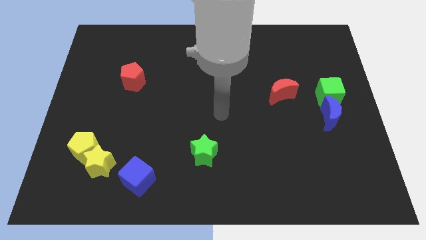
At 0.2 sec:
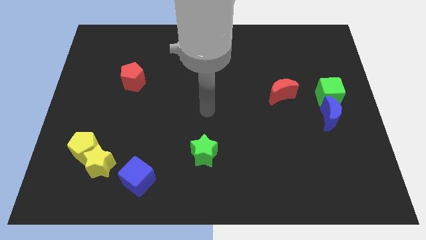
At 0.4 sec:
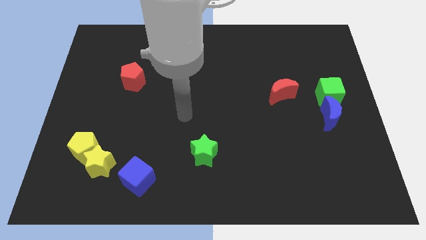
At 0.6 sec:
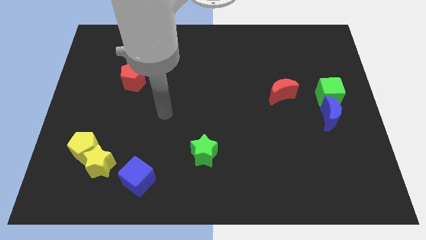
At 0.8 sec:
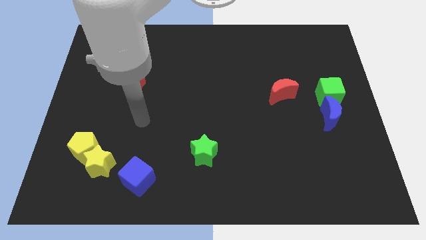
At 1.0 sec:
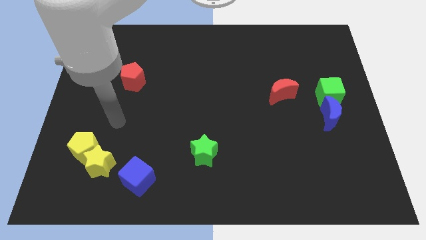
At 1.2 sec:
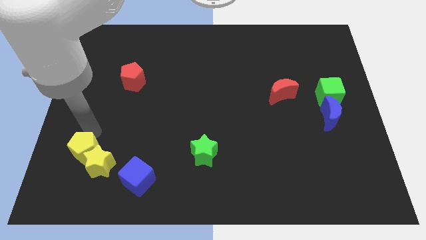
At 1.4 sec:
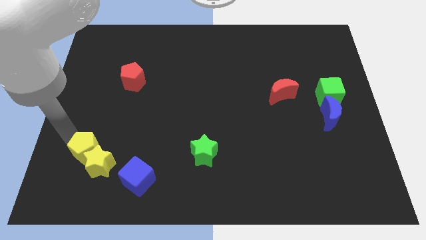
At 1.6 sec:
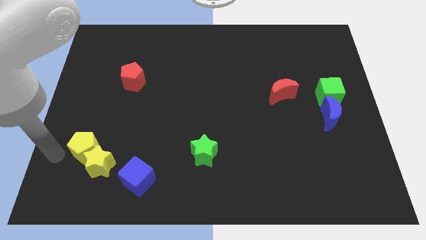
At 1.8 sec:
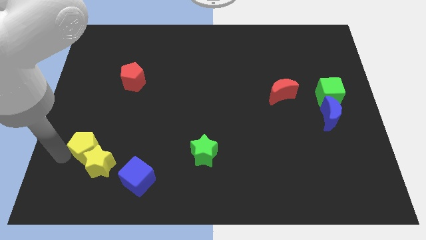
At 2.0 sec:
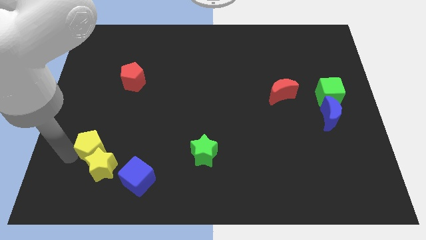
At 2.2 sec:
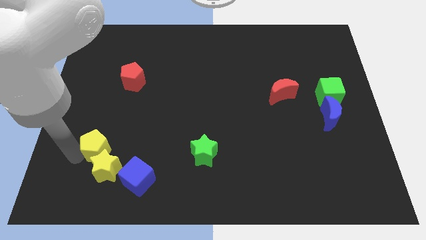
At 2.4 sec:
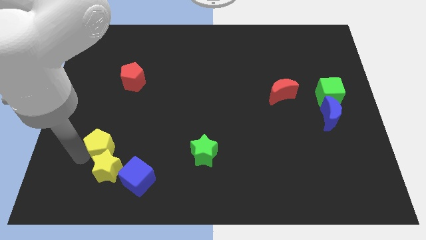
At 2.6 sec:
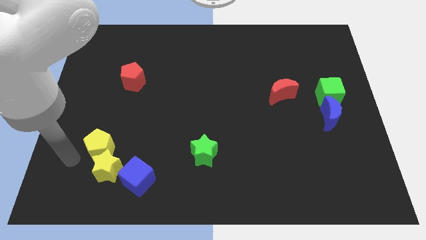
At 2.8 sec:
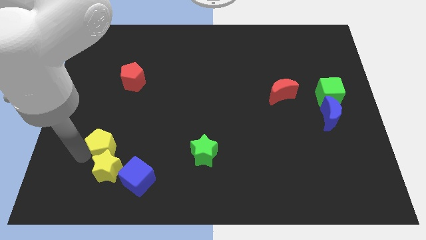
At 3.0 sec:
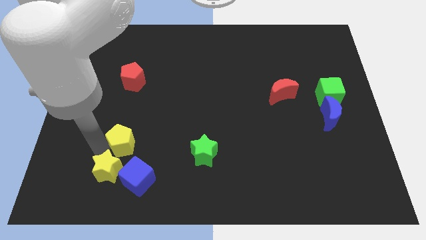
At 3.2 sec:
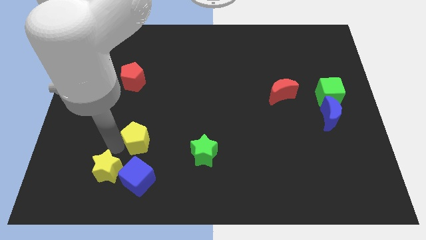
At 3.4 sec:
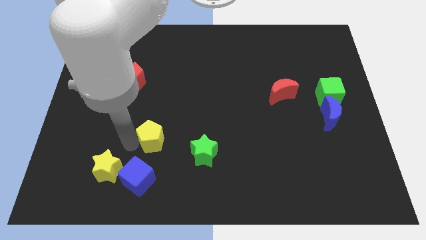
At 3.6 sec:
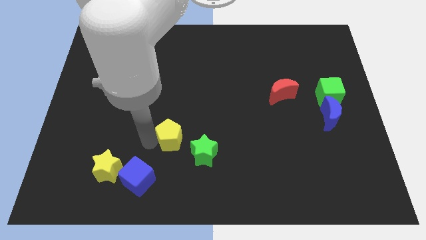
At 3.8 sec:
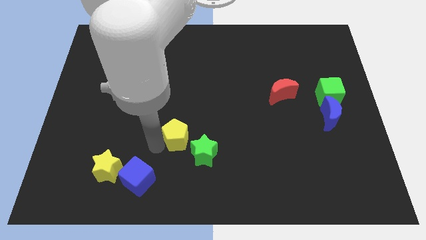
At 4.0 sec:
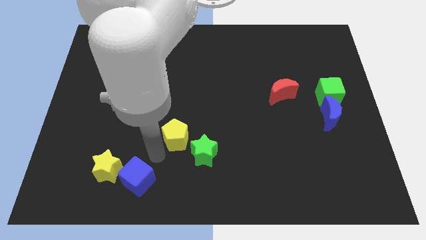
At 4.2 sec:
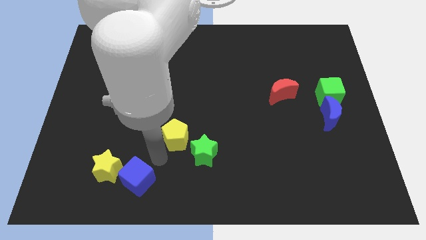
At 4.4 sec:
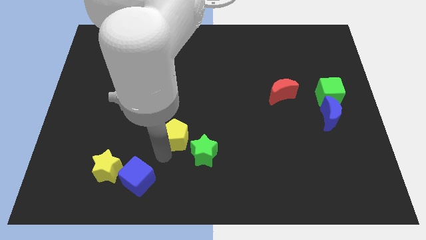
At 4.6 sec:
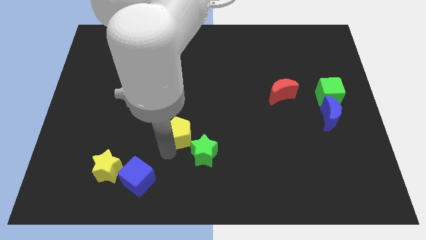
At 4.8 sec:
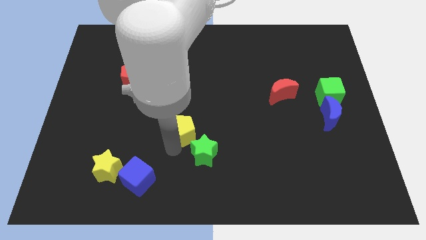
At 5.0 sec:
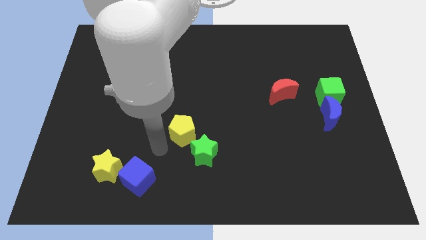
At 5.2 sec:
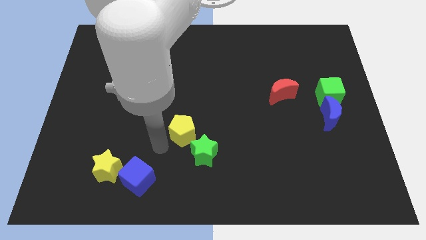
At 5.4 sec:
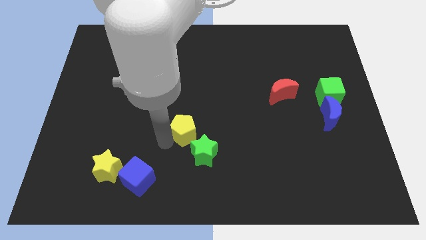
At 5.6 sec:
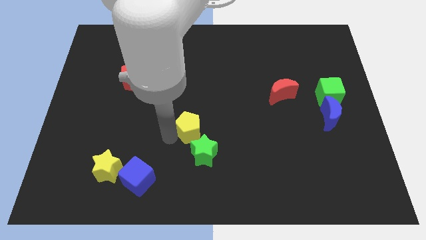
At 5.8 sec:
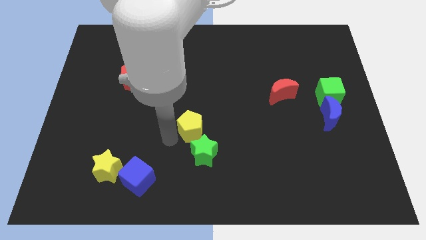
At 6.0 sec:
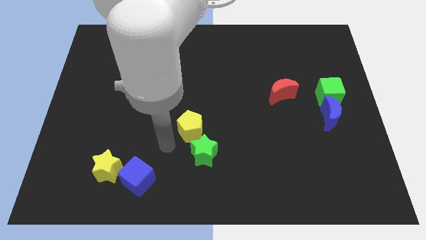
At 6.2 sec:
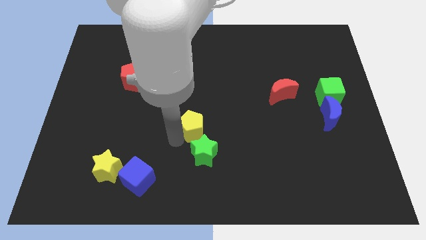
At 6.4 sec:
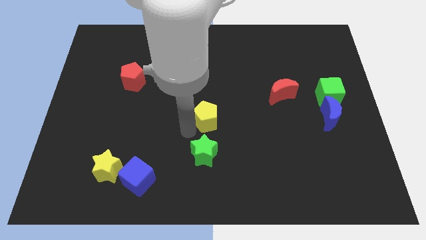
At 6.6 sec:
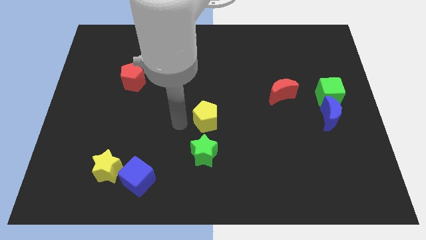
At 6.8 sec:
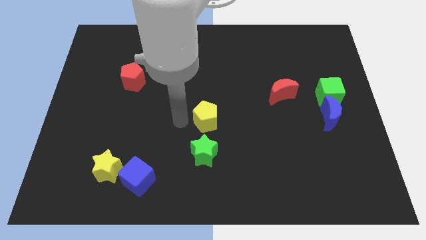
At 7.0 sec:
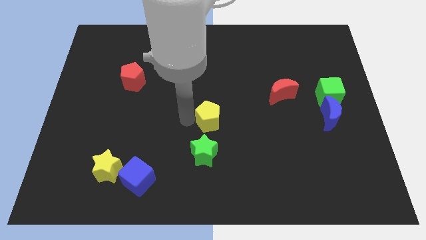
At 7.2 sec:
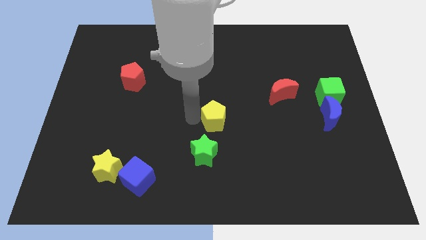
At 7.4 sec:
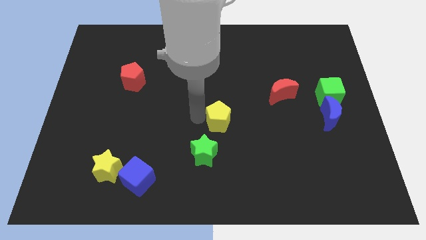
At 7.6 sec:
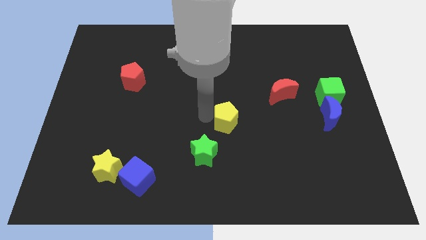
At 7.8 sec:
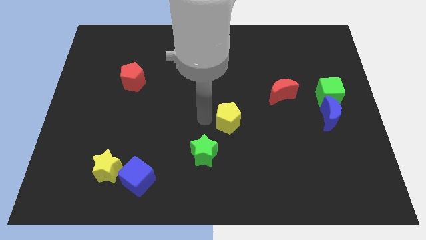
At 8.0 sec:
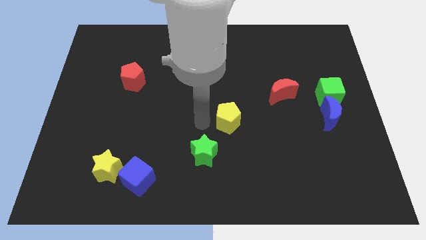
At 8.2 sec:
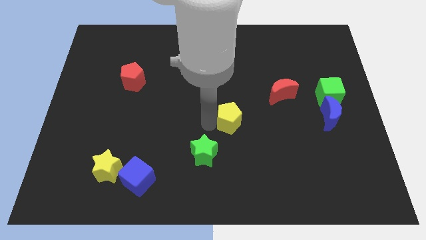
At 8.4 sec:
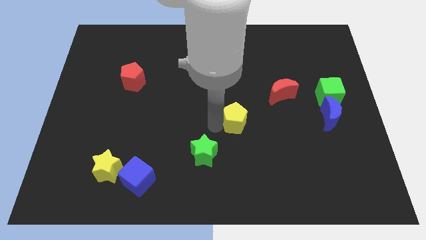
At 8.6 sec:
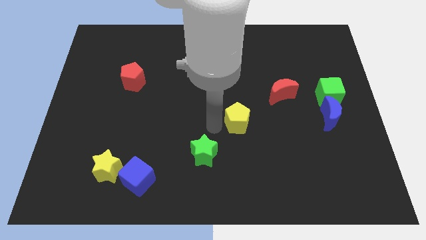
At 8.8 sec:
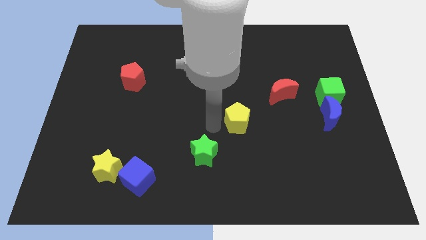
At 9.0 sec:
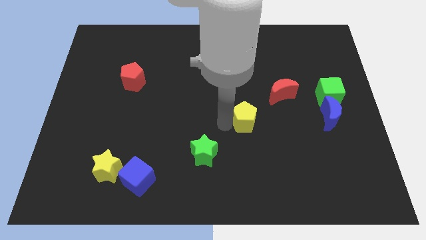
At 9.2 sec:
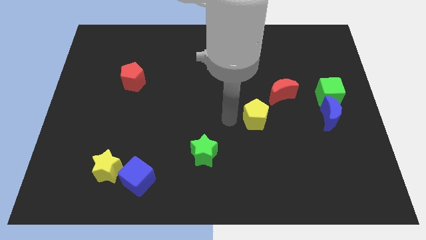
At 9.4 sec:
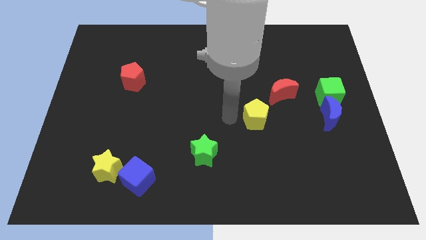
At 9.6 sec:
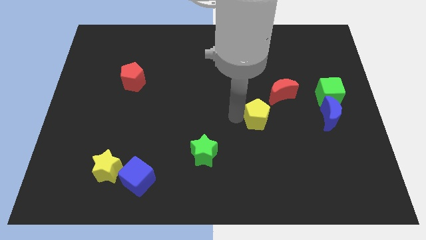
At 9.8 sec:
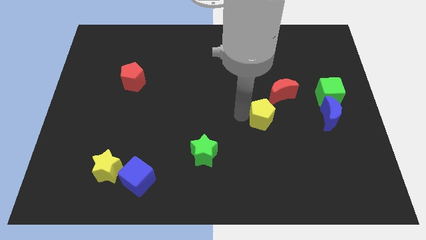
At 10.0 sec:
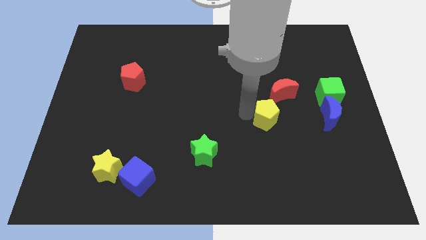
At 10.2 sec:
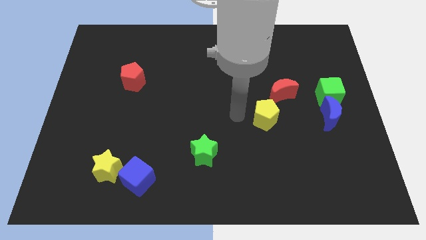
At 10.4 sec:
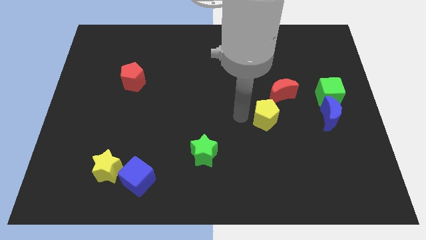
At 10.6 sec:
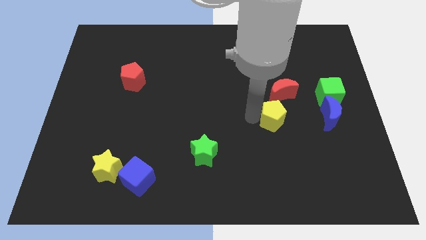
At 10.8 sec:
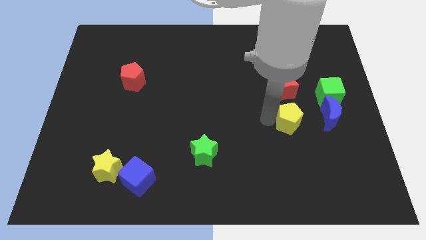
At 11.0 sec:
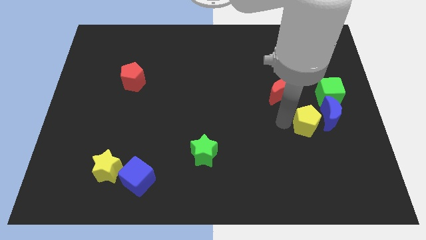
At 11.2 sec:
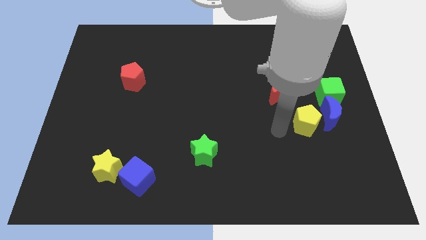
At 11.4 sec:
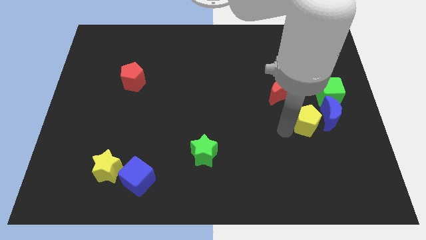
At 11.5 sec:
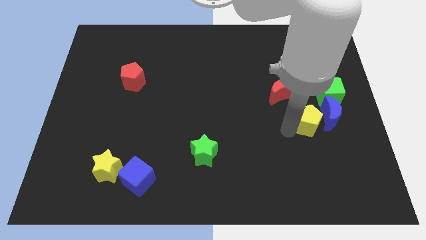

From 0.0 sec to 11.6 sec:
move the yellow pentagon next to the blue moon

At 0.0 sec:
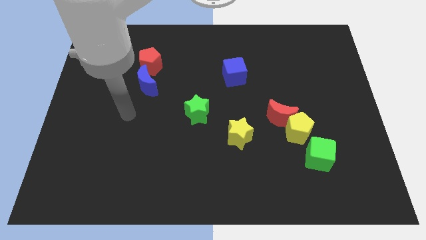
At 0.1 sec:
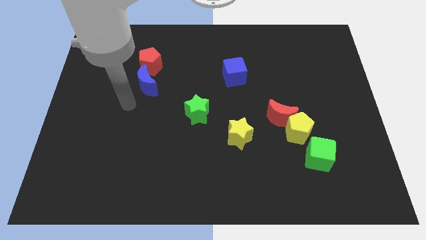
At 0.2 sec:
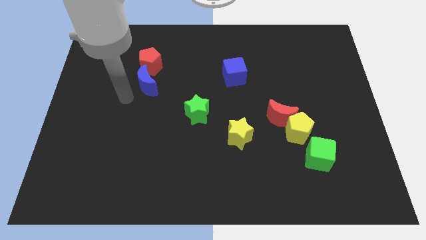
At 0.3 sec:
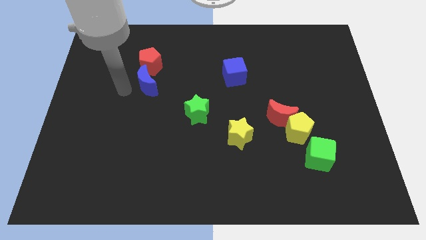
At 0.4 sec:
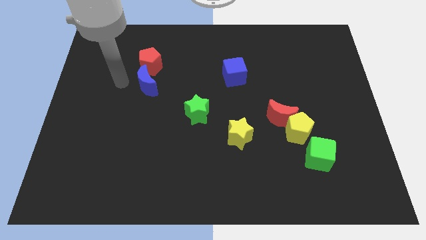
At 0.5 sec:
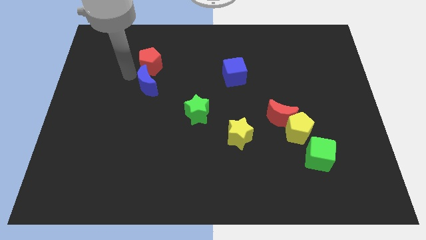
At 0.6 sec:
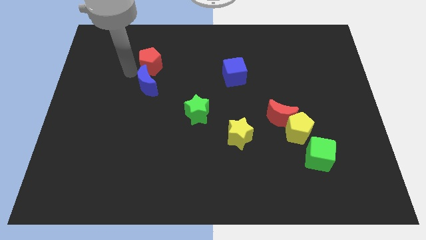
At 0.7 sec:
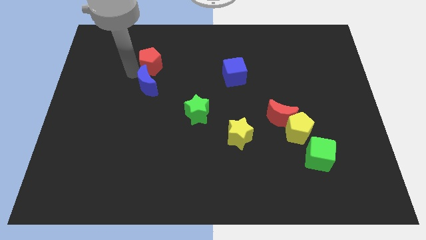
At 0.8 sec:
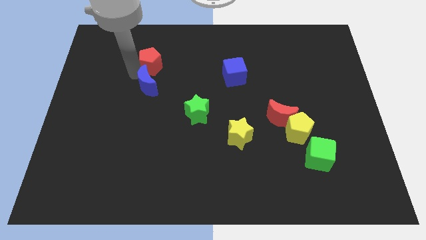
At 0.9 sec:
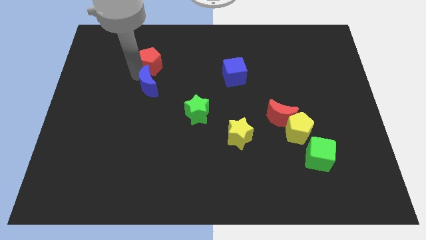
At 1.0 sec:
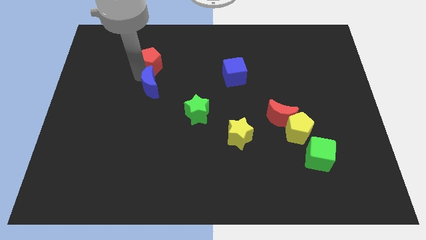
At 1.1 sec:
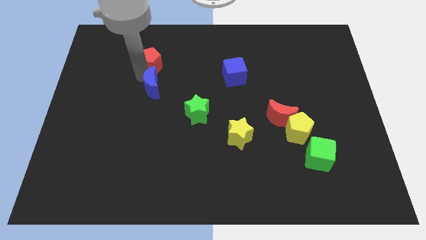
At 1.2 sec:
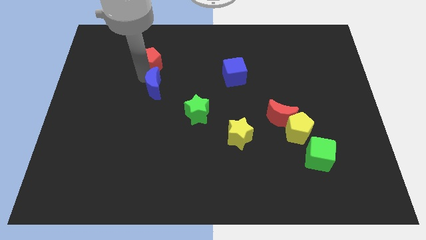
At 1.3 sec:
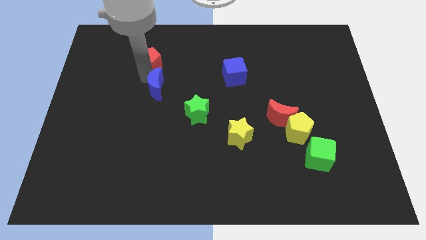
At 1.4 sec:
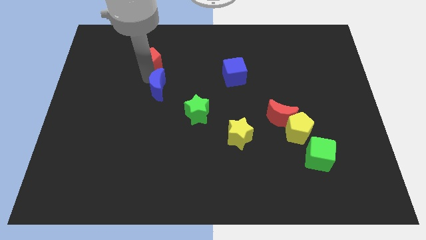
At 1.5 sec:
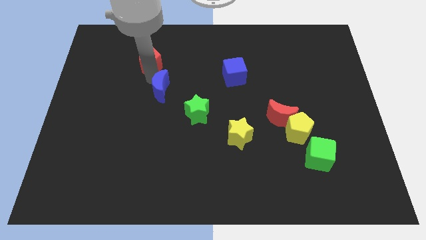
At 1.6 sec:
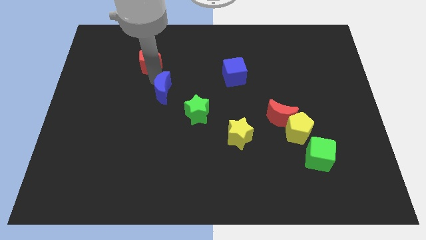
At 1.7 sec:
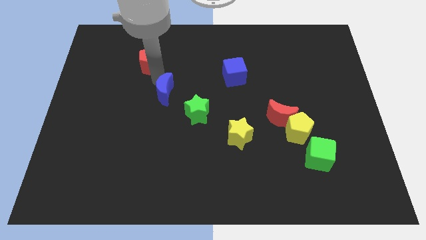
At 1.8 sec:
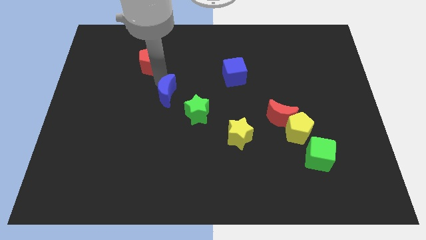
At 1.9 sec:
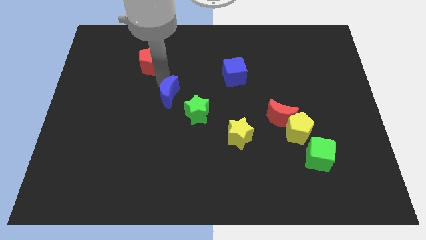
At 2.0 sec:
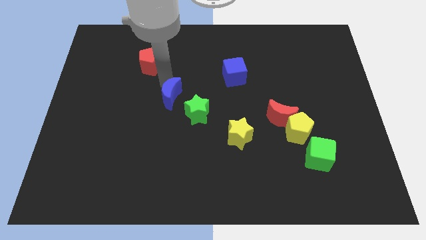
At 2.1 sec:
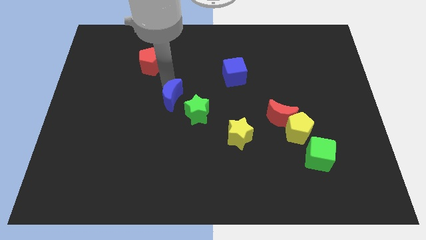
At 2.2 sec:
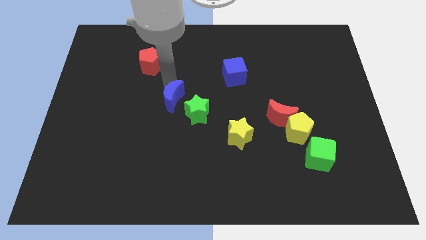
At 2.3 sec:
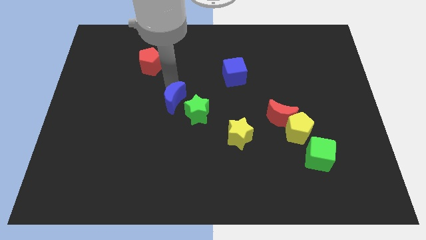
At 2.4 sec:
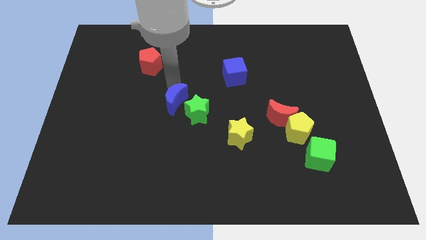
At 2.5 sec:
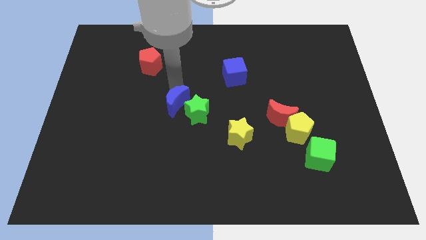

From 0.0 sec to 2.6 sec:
put the blue moon close to the green star
